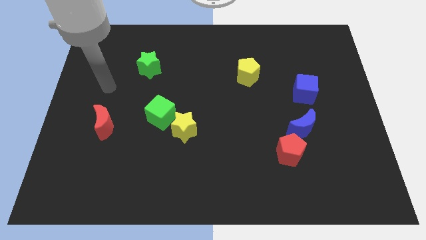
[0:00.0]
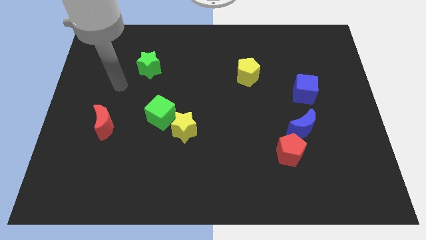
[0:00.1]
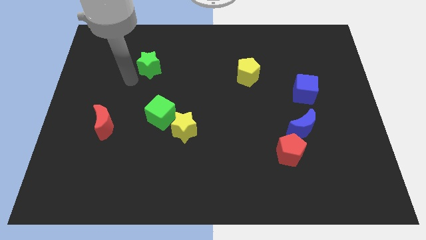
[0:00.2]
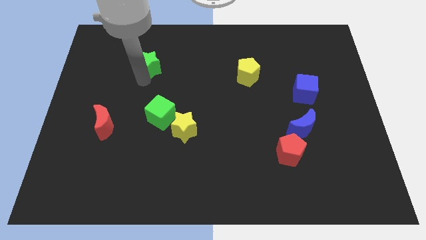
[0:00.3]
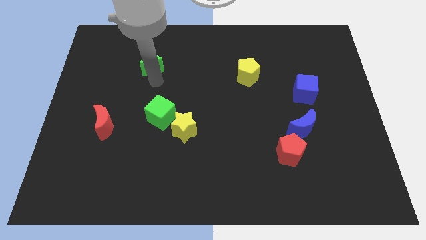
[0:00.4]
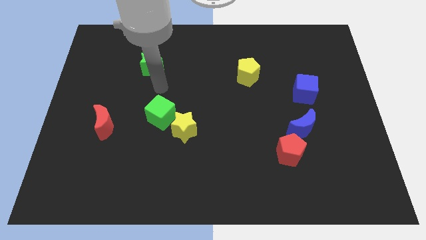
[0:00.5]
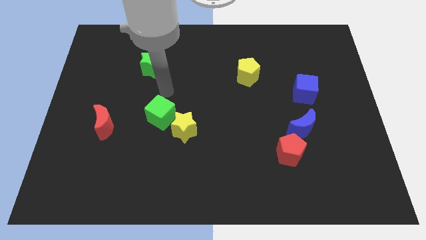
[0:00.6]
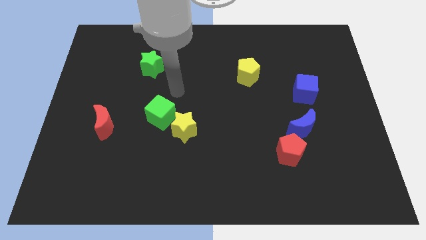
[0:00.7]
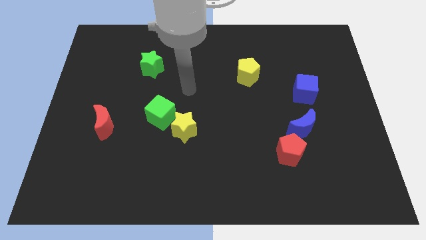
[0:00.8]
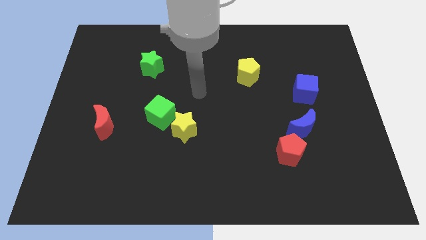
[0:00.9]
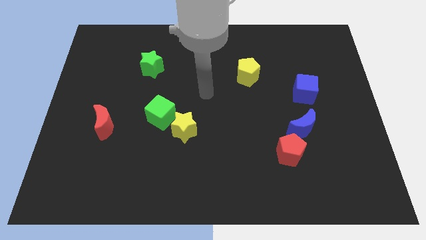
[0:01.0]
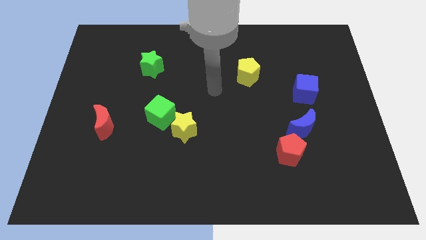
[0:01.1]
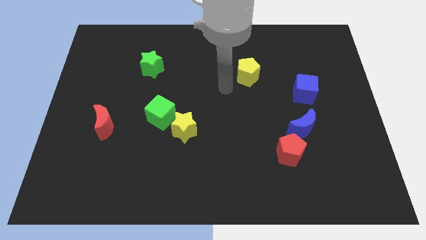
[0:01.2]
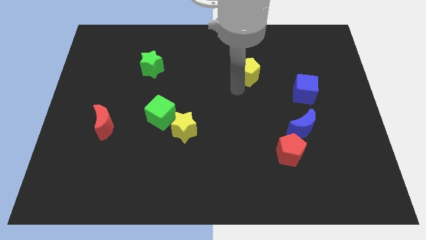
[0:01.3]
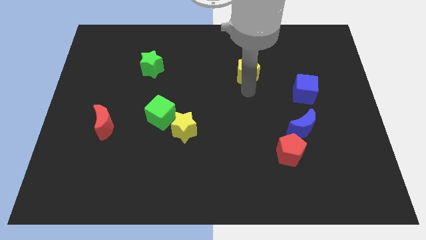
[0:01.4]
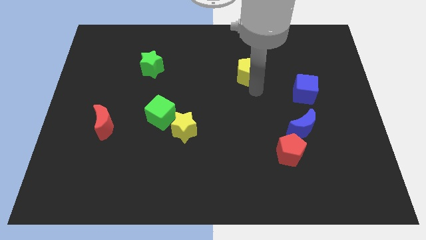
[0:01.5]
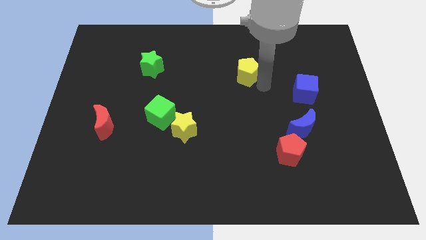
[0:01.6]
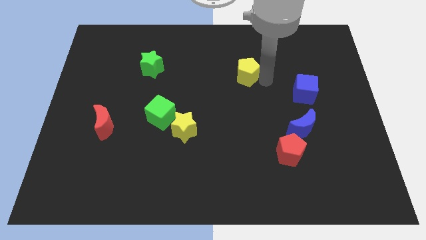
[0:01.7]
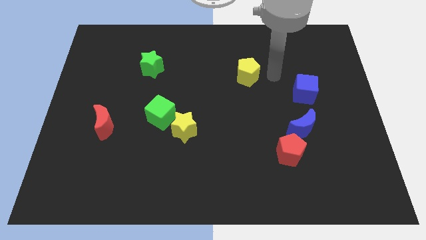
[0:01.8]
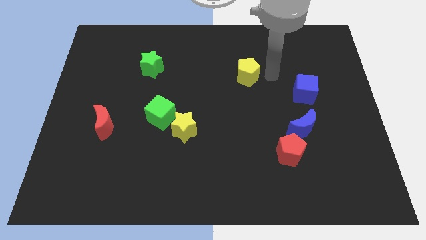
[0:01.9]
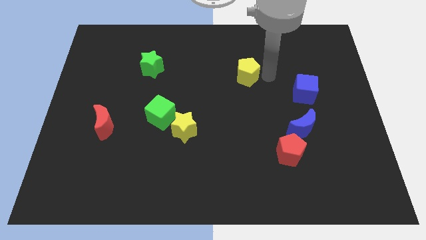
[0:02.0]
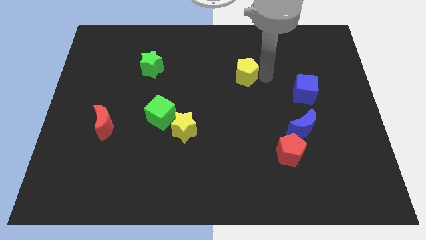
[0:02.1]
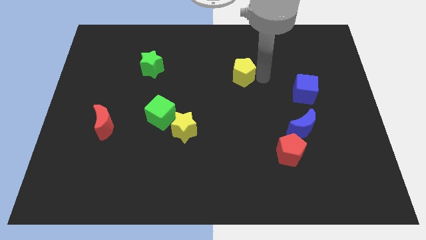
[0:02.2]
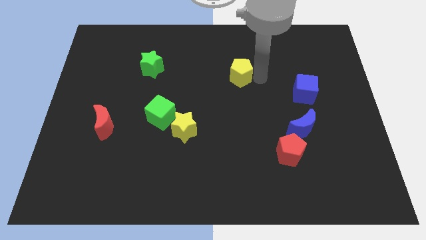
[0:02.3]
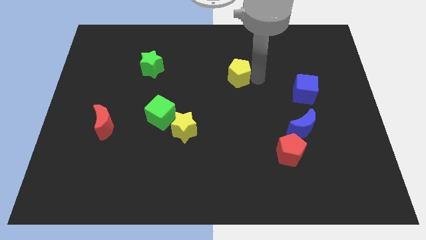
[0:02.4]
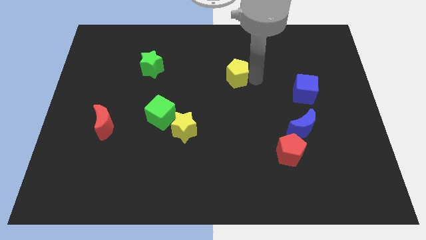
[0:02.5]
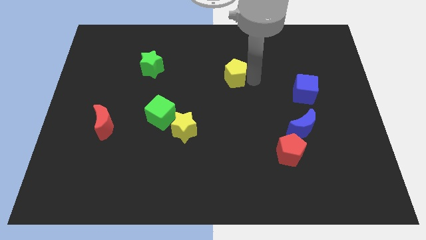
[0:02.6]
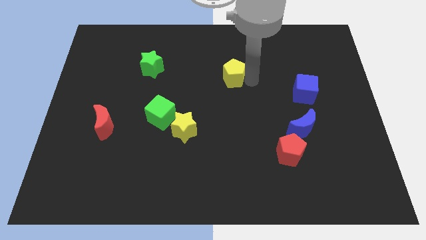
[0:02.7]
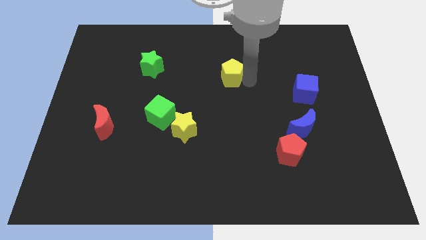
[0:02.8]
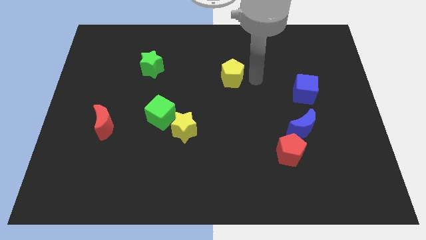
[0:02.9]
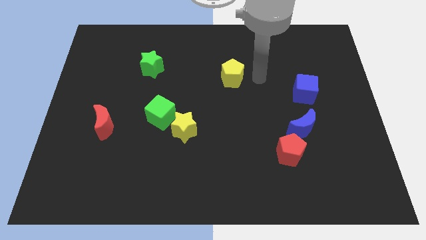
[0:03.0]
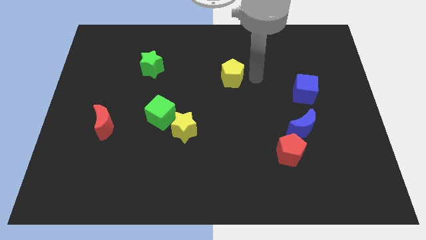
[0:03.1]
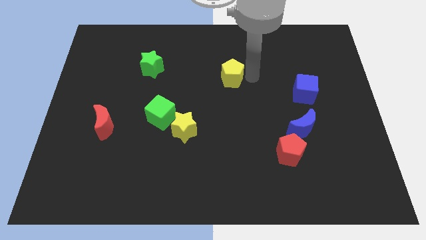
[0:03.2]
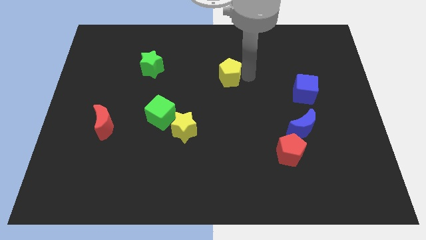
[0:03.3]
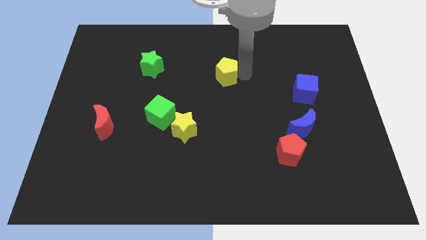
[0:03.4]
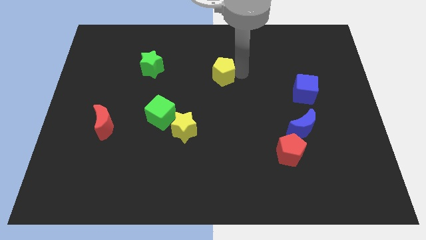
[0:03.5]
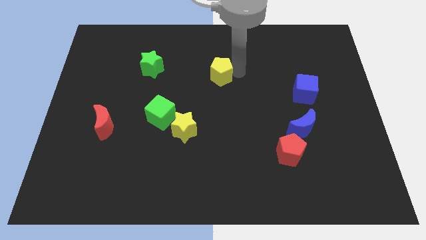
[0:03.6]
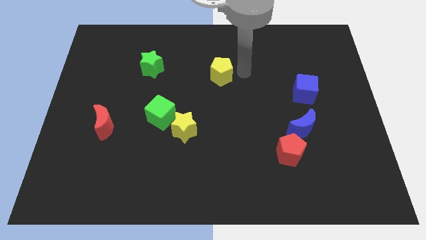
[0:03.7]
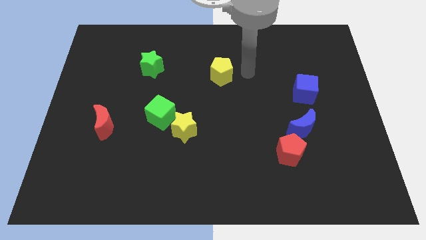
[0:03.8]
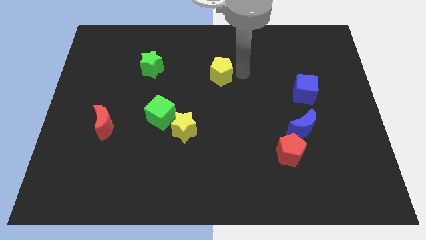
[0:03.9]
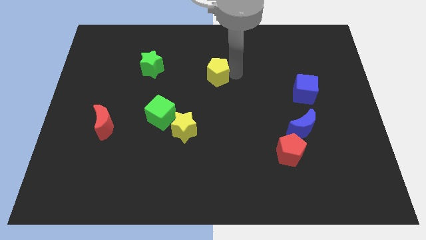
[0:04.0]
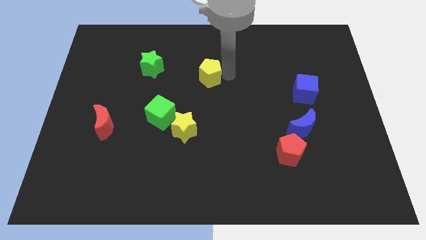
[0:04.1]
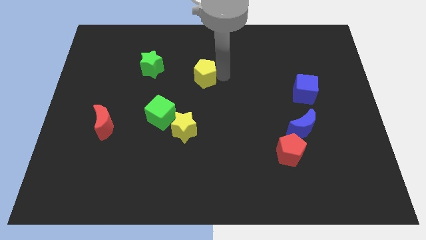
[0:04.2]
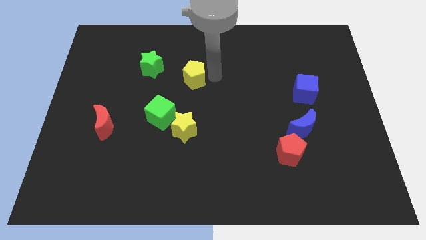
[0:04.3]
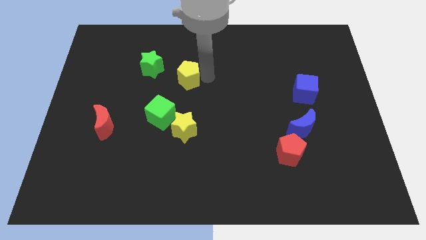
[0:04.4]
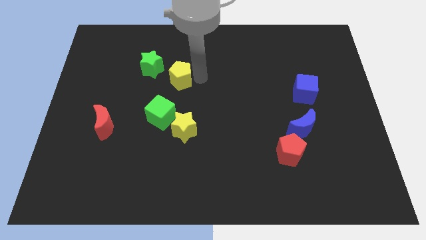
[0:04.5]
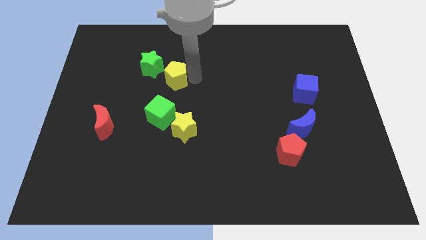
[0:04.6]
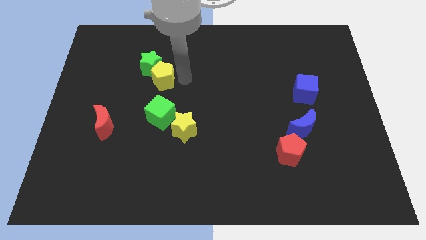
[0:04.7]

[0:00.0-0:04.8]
push the yellow pentagon to the left

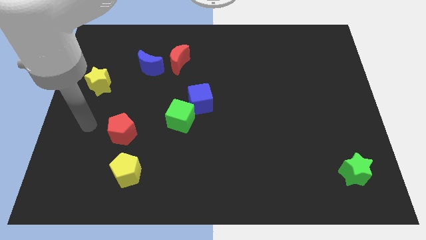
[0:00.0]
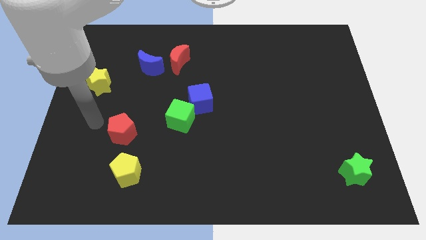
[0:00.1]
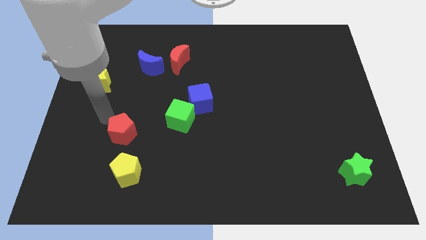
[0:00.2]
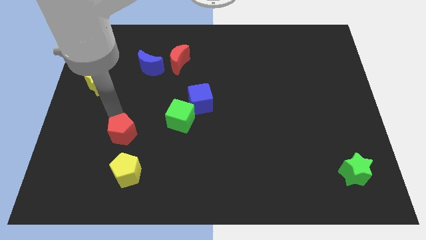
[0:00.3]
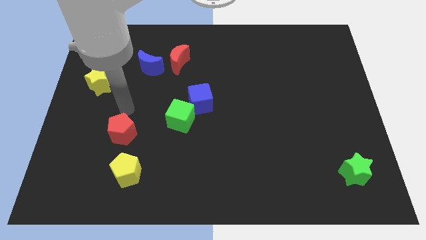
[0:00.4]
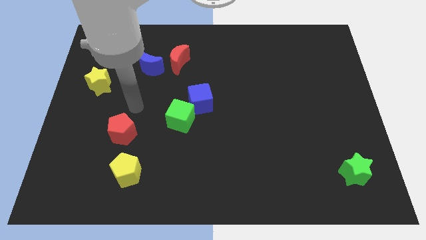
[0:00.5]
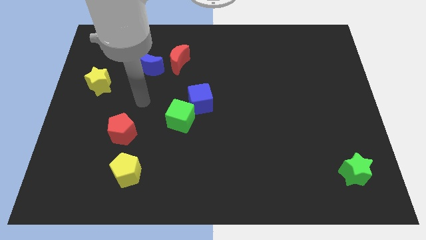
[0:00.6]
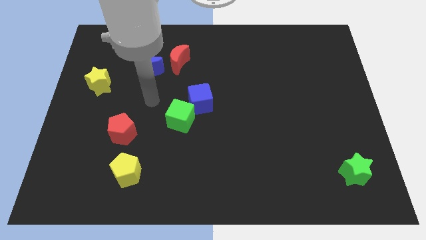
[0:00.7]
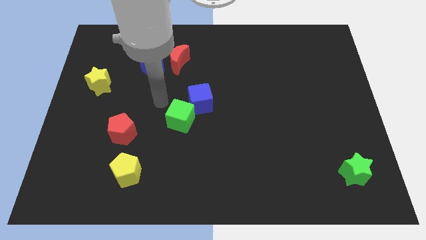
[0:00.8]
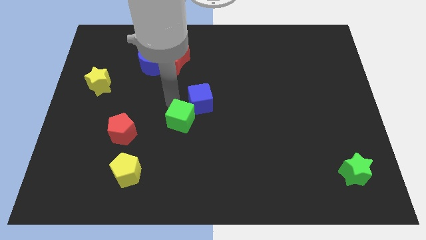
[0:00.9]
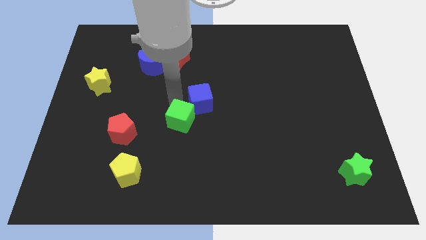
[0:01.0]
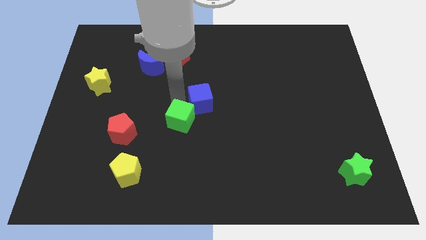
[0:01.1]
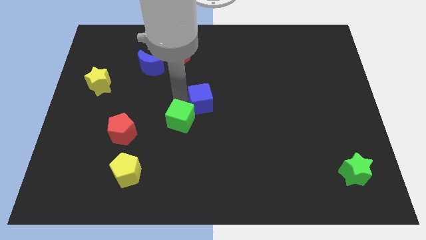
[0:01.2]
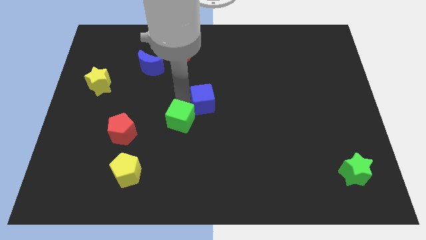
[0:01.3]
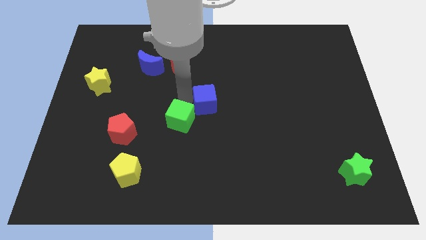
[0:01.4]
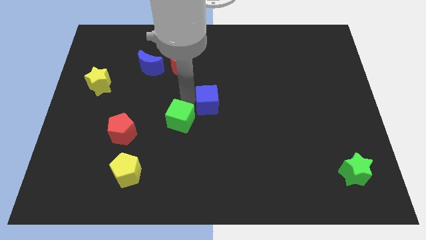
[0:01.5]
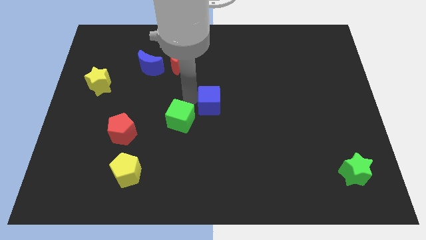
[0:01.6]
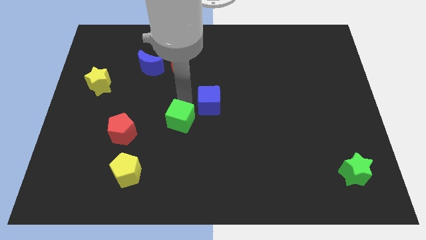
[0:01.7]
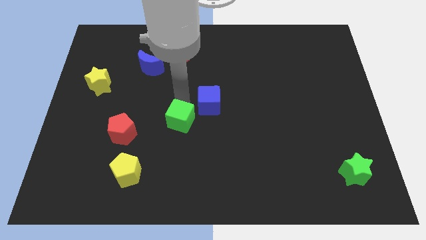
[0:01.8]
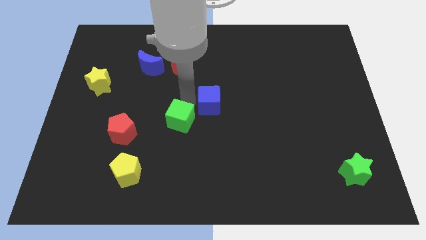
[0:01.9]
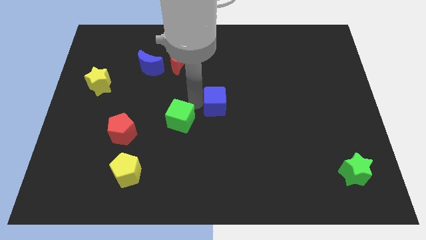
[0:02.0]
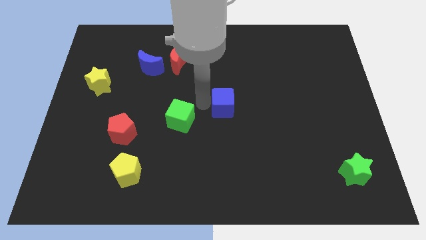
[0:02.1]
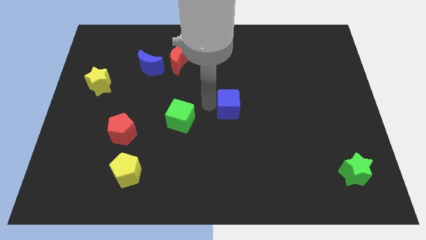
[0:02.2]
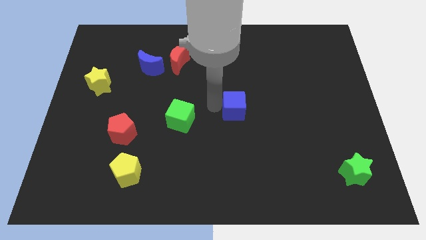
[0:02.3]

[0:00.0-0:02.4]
slide the blue cube slightly to the right

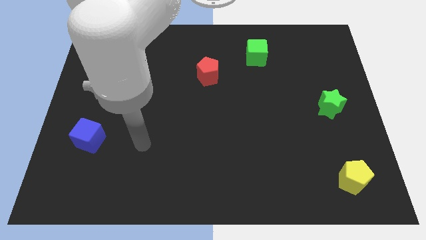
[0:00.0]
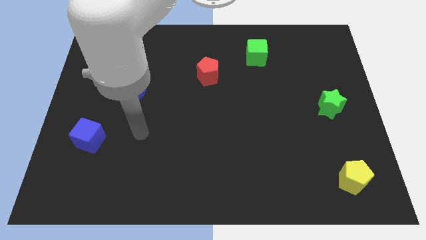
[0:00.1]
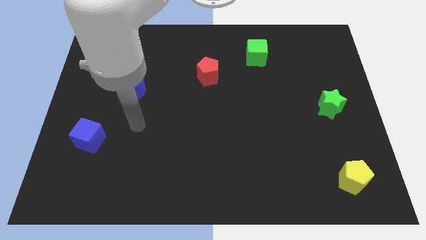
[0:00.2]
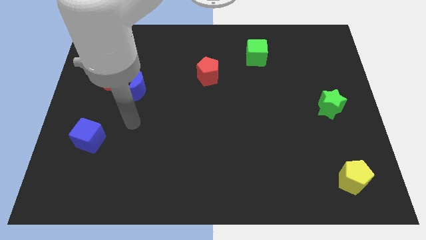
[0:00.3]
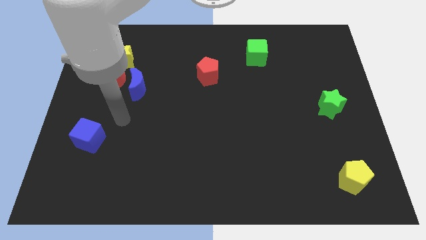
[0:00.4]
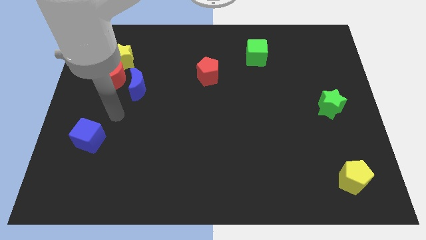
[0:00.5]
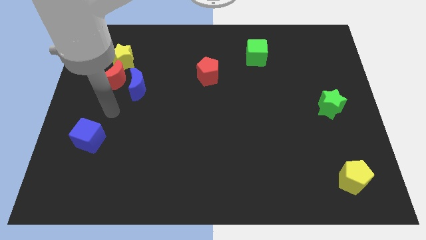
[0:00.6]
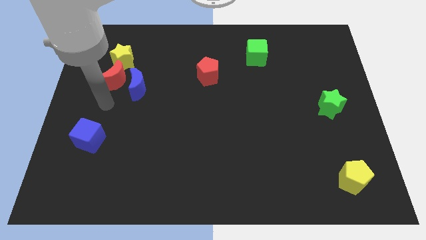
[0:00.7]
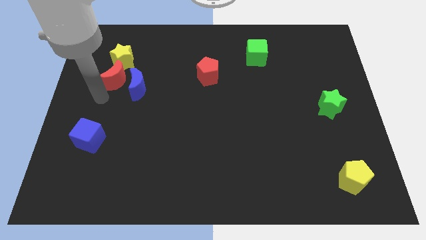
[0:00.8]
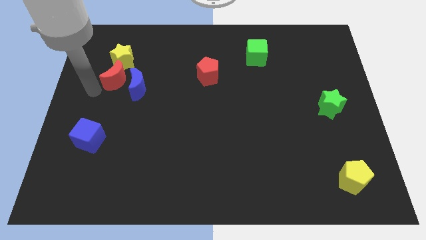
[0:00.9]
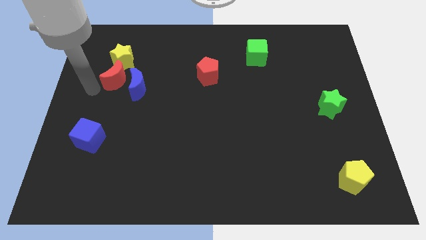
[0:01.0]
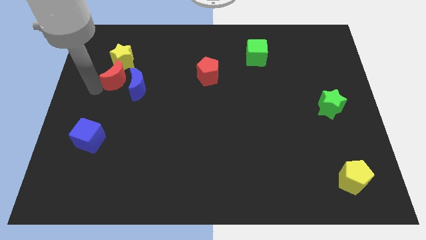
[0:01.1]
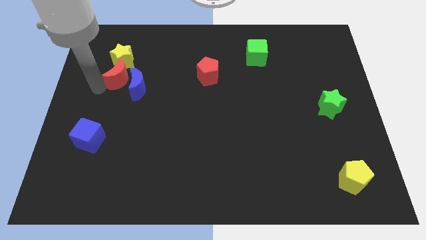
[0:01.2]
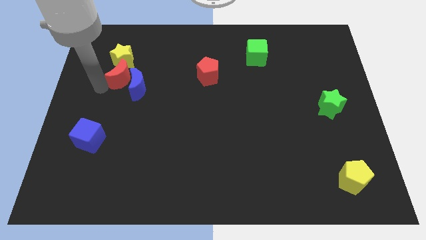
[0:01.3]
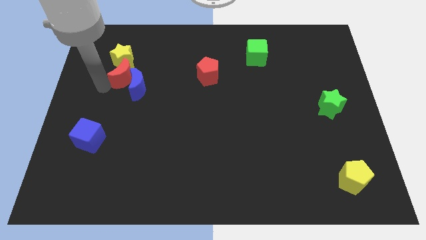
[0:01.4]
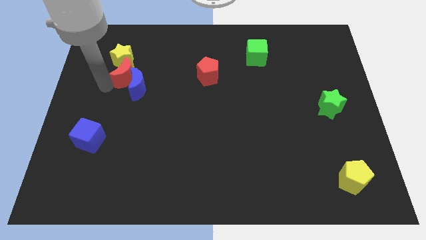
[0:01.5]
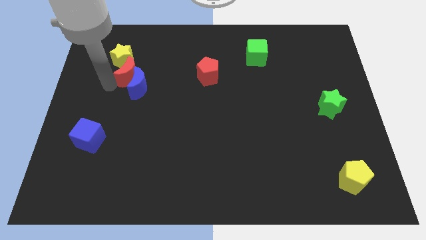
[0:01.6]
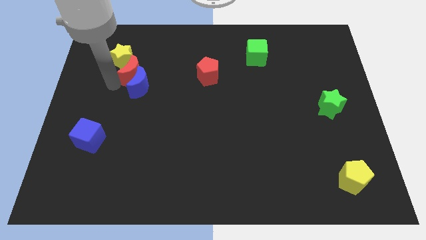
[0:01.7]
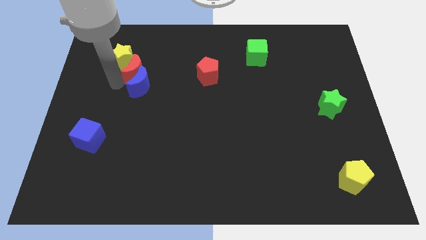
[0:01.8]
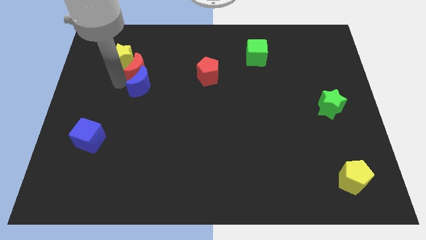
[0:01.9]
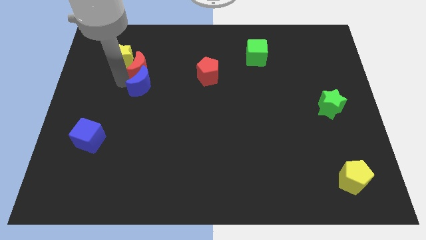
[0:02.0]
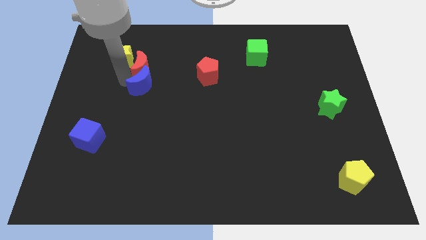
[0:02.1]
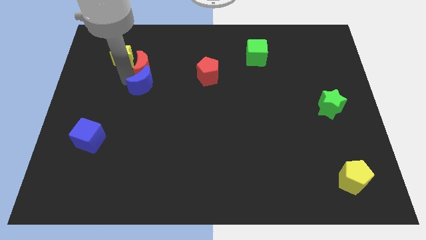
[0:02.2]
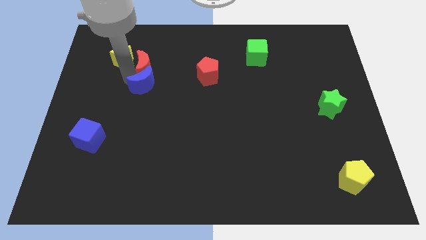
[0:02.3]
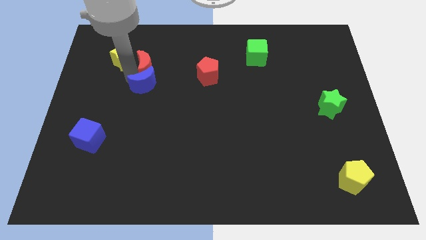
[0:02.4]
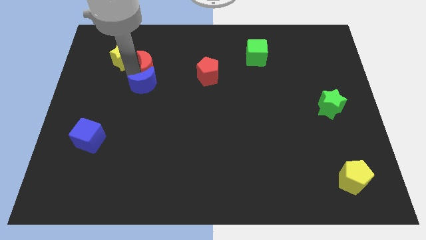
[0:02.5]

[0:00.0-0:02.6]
move the red moon a little bit right
